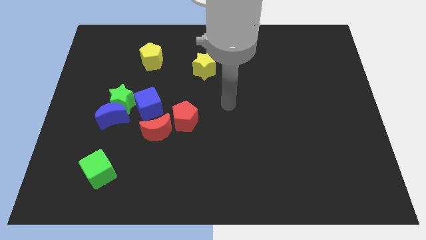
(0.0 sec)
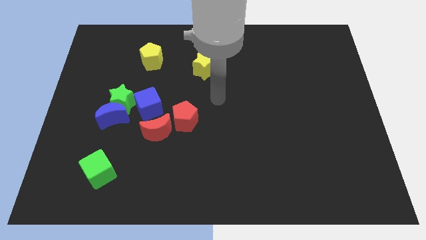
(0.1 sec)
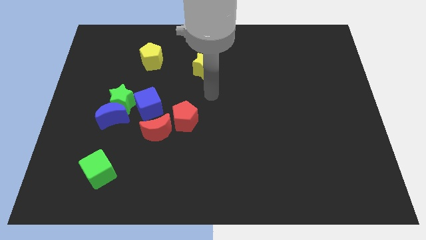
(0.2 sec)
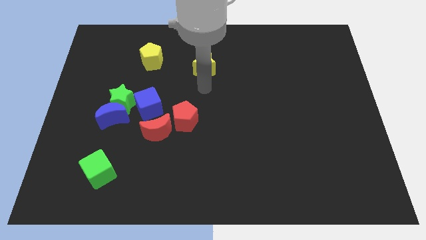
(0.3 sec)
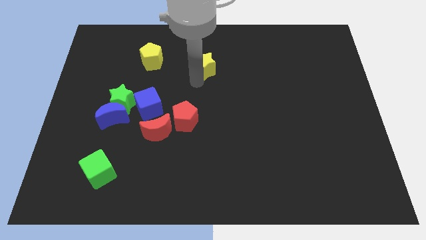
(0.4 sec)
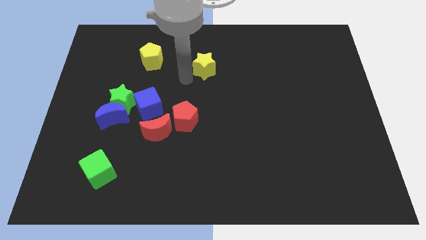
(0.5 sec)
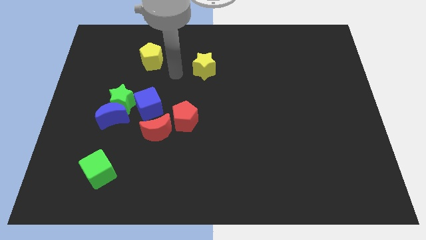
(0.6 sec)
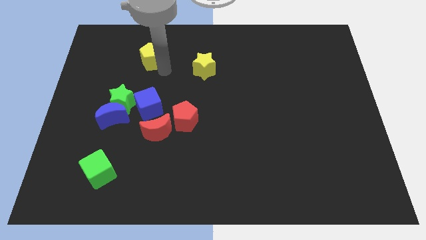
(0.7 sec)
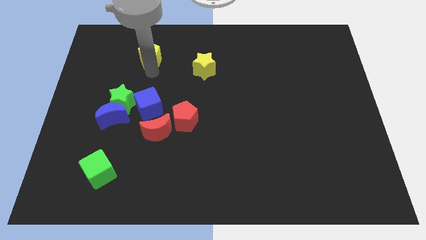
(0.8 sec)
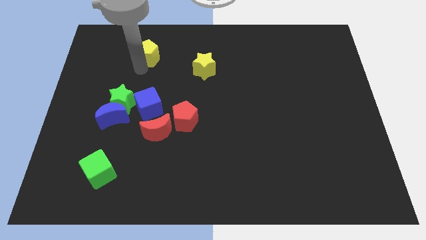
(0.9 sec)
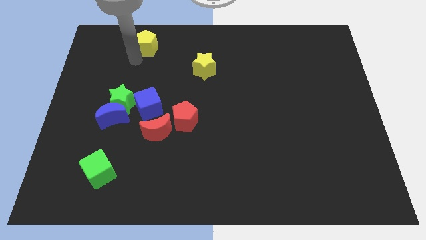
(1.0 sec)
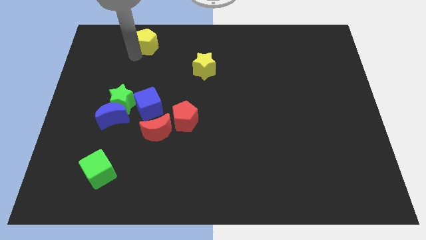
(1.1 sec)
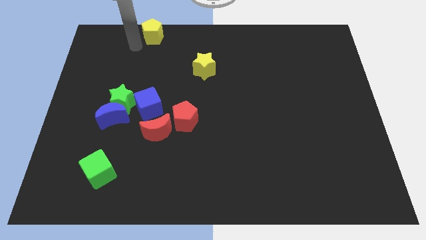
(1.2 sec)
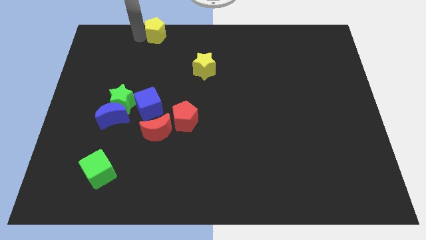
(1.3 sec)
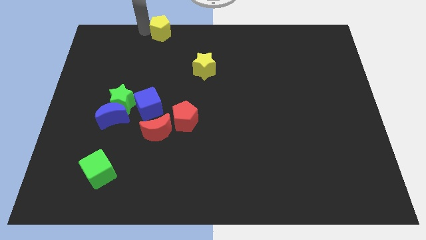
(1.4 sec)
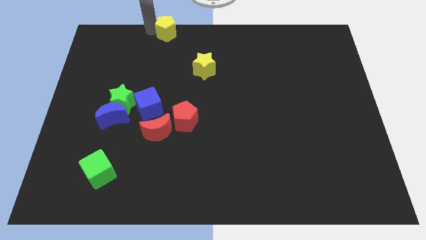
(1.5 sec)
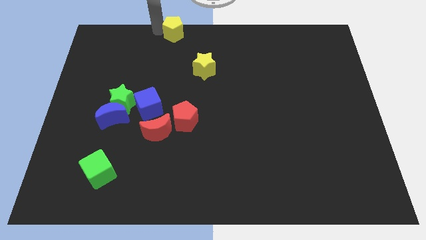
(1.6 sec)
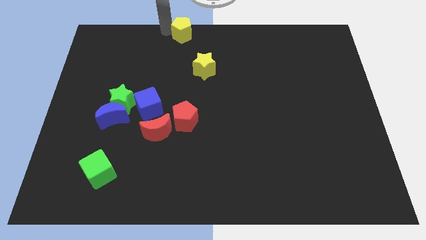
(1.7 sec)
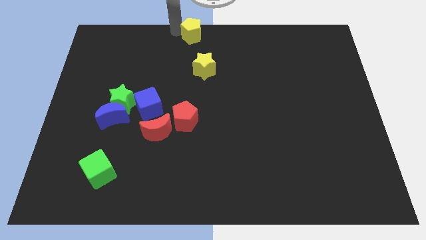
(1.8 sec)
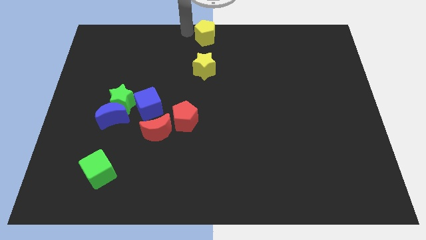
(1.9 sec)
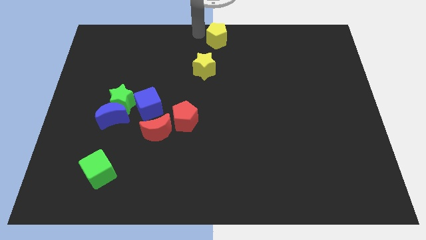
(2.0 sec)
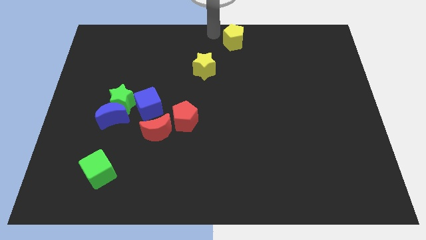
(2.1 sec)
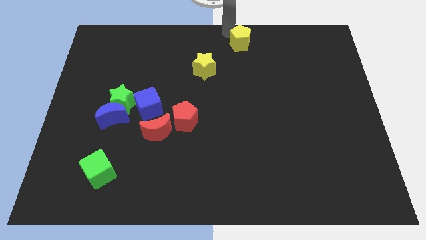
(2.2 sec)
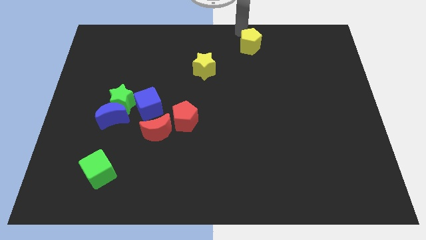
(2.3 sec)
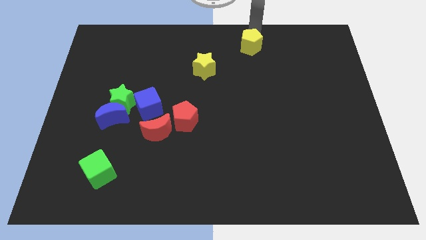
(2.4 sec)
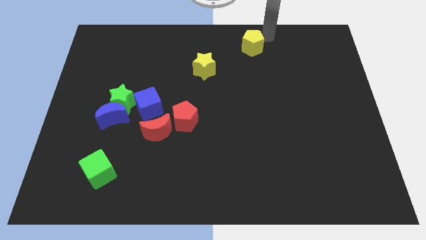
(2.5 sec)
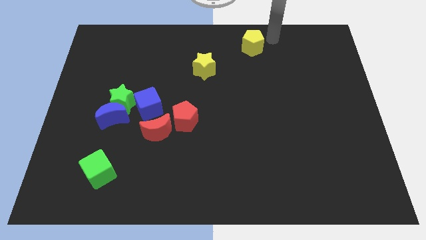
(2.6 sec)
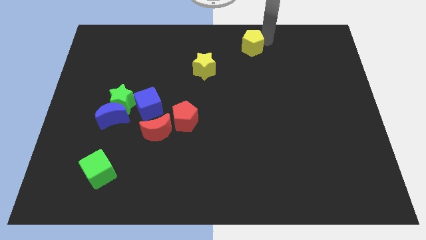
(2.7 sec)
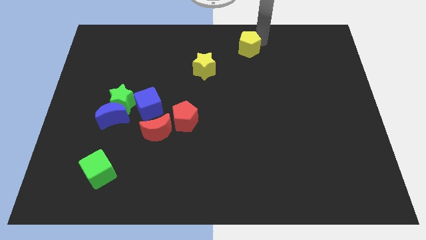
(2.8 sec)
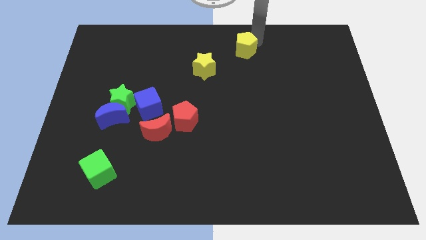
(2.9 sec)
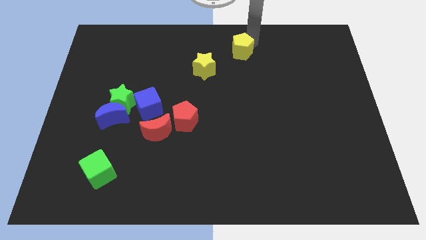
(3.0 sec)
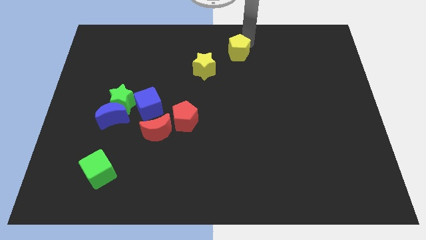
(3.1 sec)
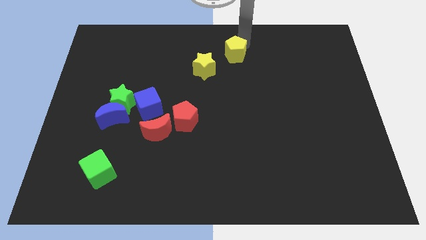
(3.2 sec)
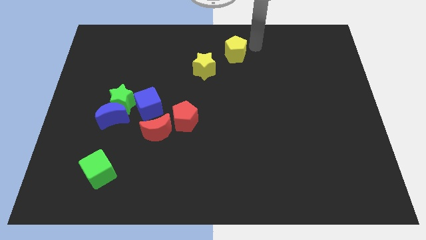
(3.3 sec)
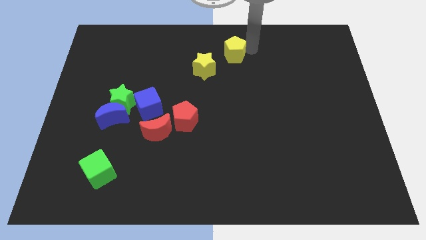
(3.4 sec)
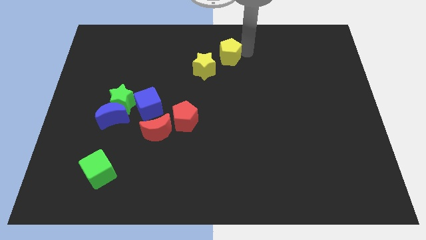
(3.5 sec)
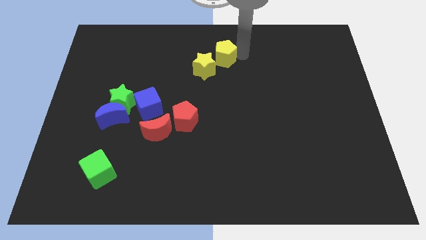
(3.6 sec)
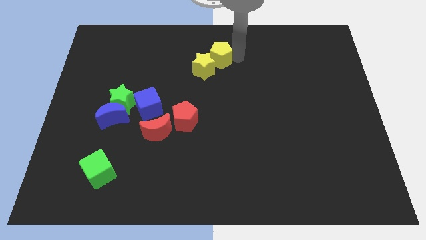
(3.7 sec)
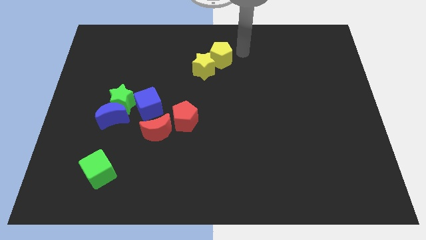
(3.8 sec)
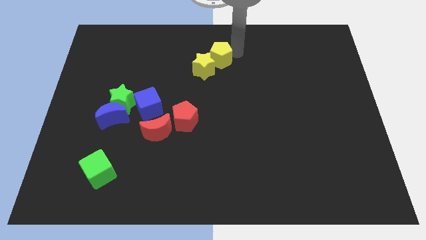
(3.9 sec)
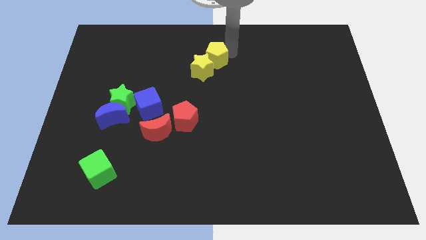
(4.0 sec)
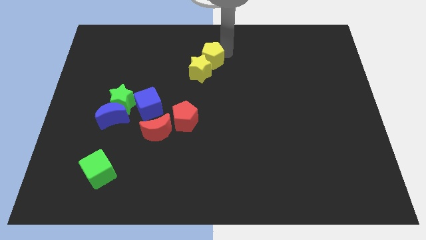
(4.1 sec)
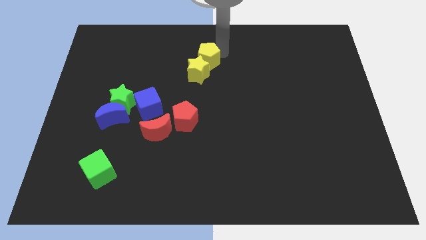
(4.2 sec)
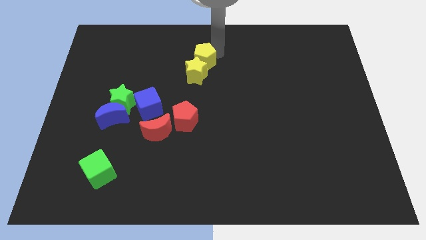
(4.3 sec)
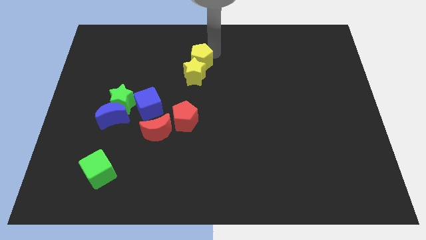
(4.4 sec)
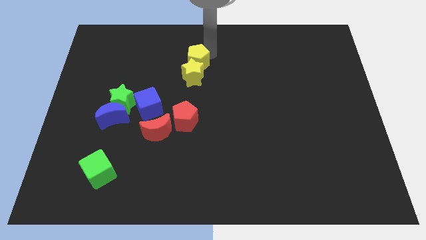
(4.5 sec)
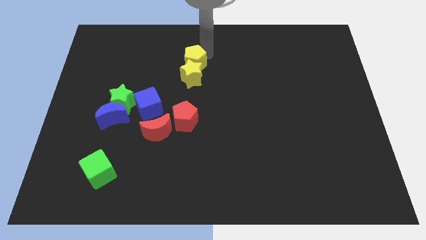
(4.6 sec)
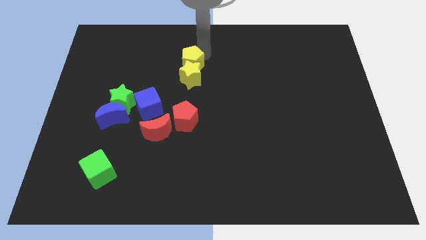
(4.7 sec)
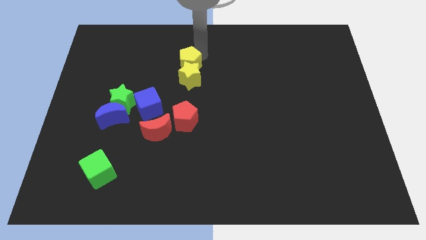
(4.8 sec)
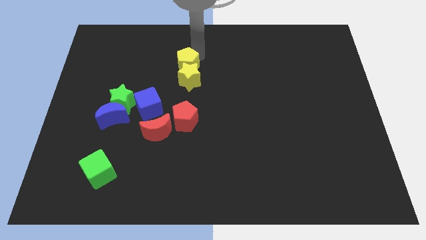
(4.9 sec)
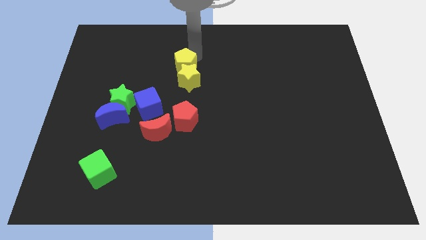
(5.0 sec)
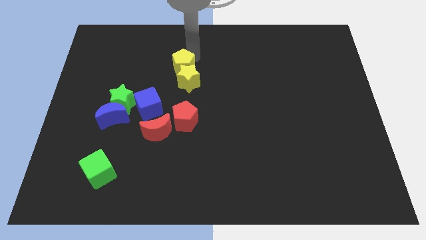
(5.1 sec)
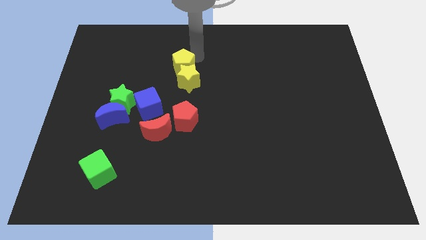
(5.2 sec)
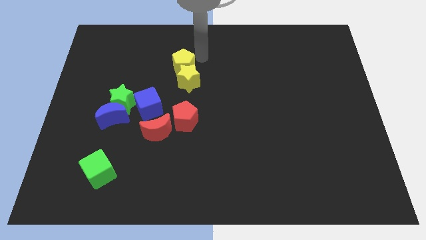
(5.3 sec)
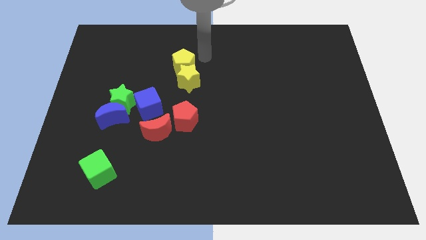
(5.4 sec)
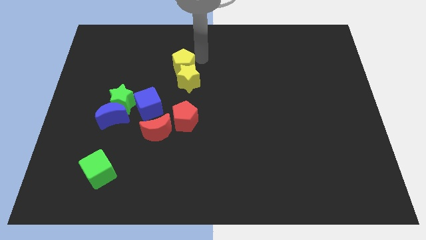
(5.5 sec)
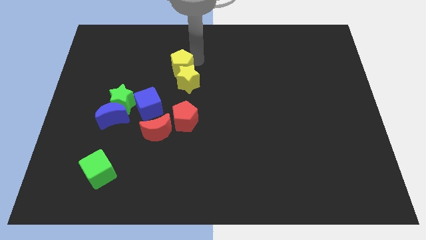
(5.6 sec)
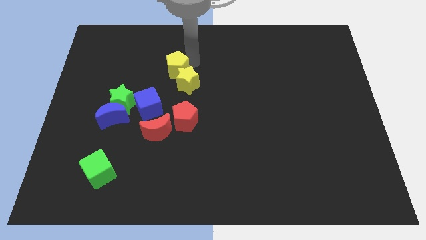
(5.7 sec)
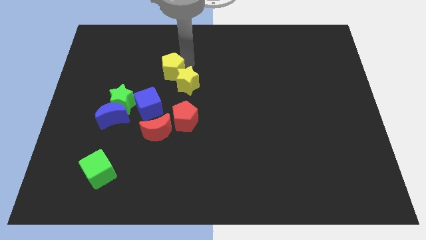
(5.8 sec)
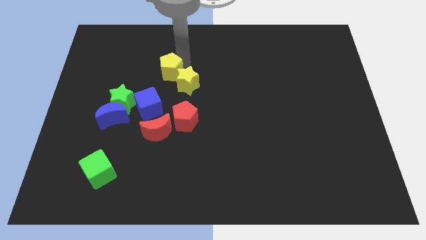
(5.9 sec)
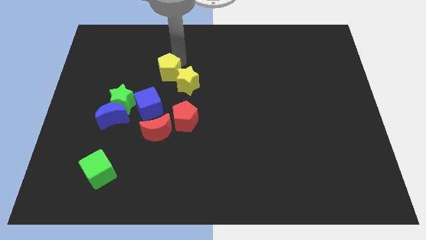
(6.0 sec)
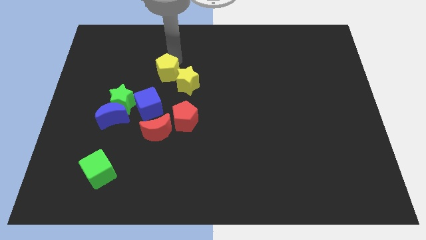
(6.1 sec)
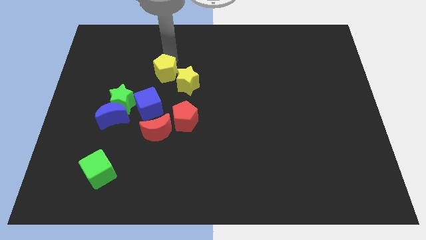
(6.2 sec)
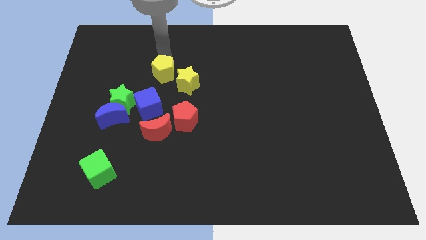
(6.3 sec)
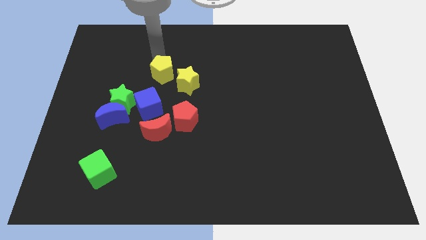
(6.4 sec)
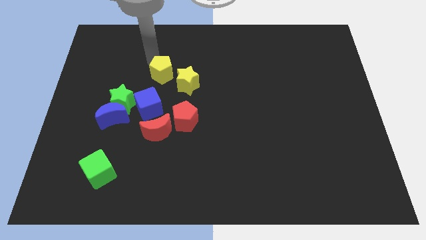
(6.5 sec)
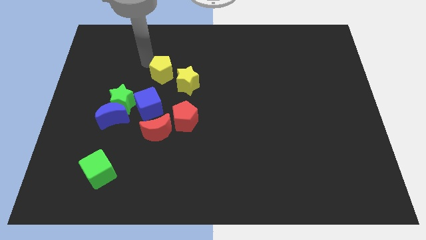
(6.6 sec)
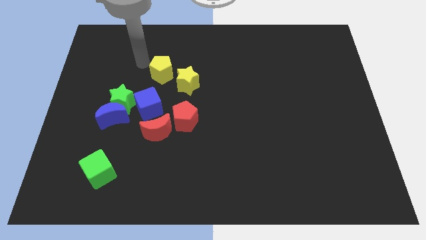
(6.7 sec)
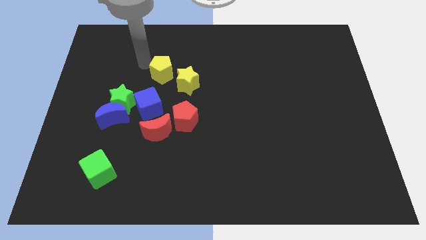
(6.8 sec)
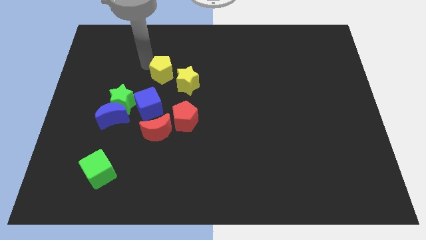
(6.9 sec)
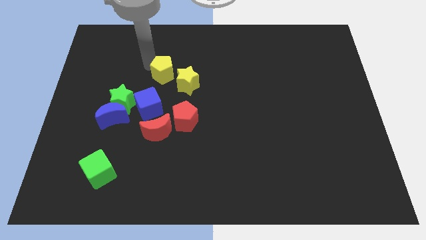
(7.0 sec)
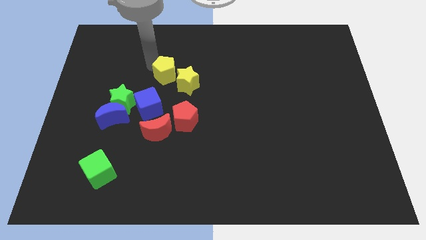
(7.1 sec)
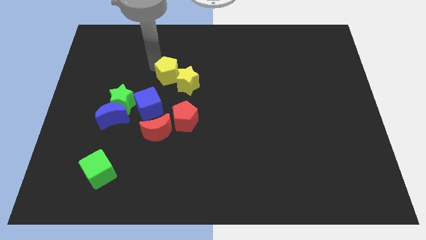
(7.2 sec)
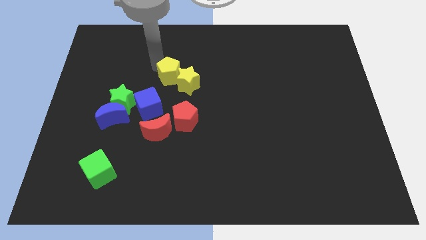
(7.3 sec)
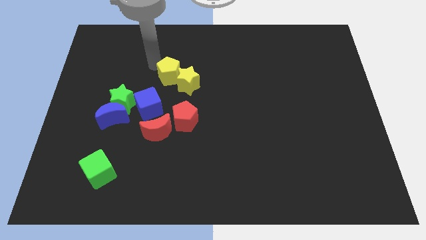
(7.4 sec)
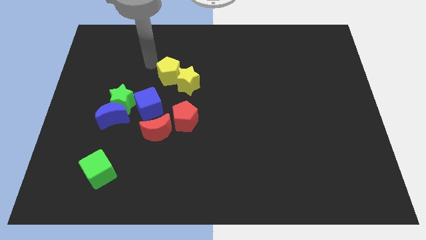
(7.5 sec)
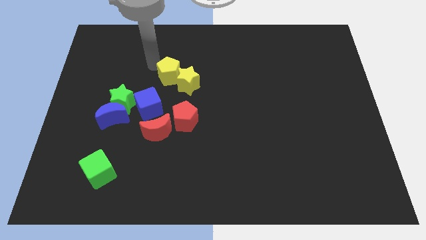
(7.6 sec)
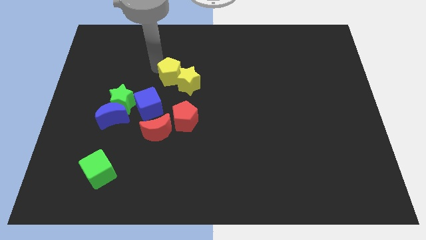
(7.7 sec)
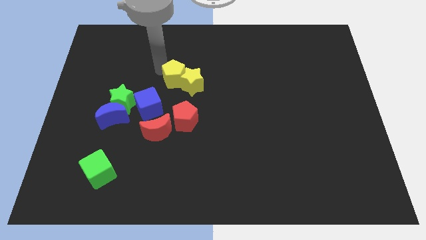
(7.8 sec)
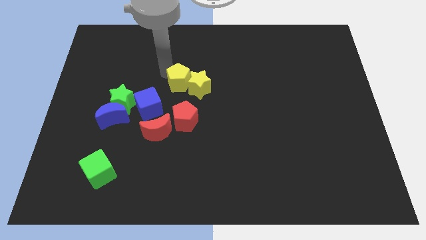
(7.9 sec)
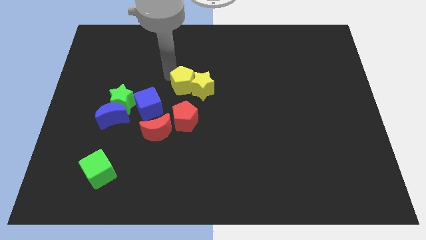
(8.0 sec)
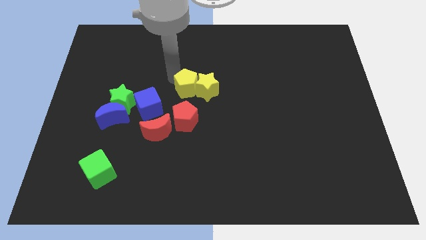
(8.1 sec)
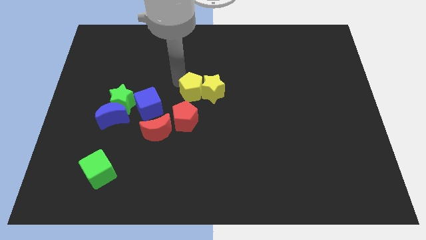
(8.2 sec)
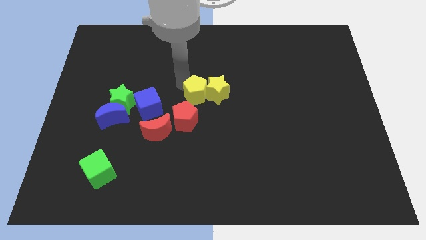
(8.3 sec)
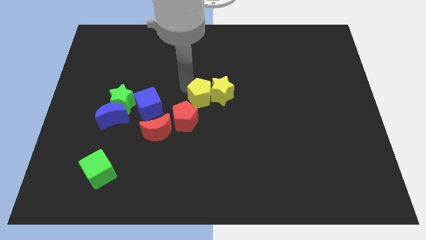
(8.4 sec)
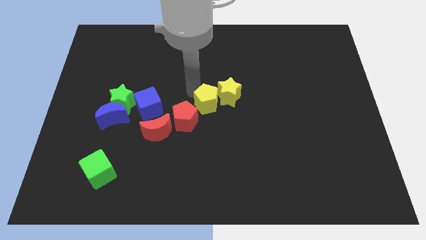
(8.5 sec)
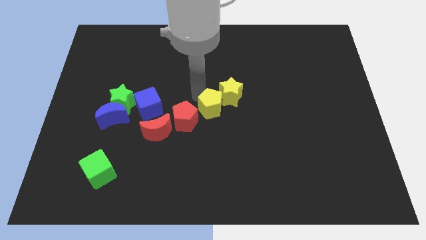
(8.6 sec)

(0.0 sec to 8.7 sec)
push the yellow pentagon to the right of the red pentagon
